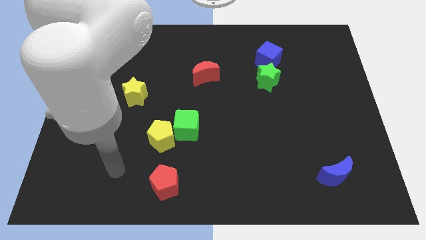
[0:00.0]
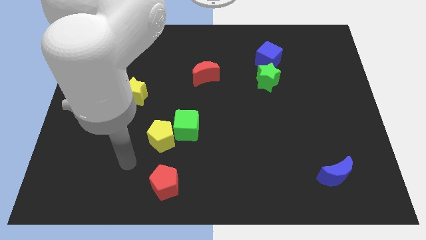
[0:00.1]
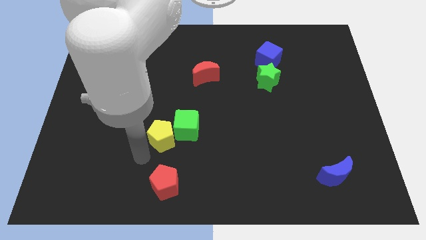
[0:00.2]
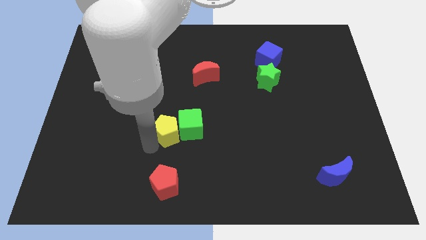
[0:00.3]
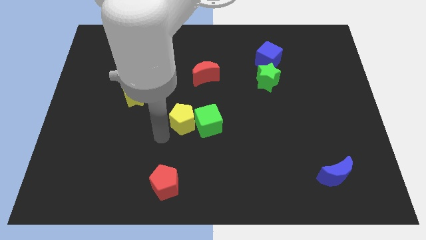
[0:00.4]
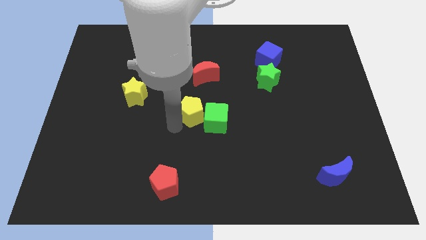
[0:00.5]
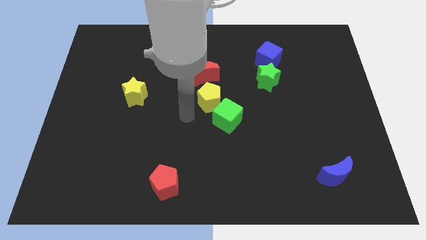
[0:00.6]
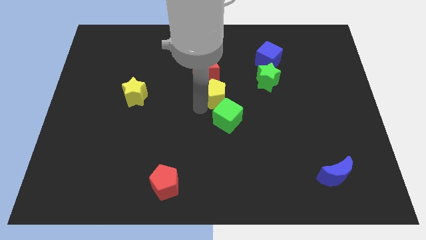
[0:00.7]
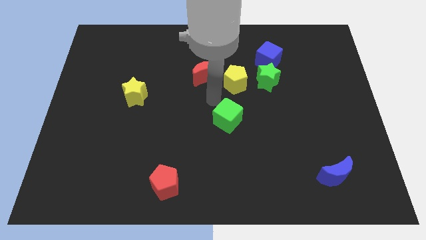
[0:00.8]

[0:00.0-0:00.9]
pull the green cube apart from the yellow pentagon

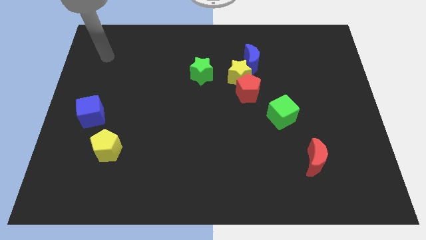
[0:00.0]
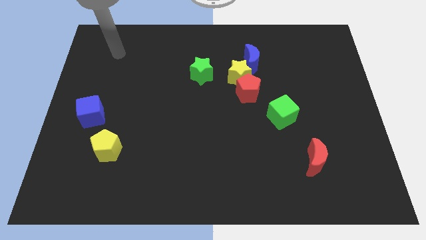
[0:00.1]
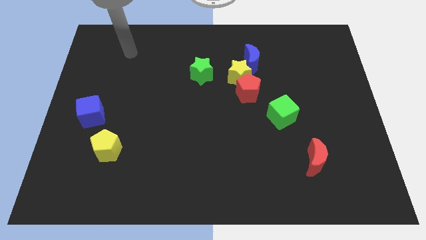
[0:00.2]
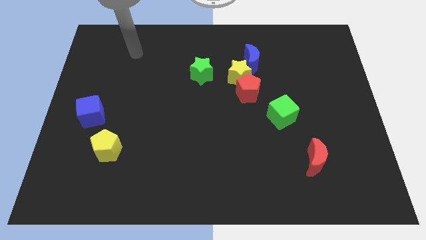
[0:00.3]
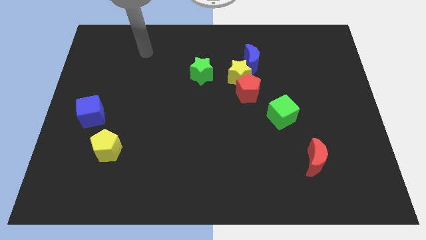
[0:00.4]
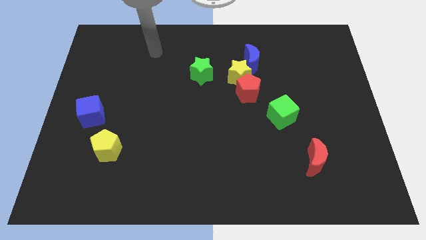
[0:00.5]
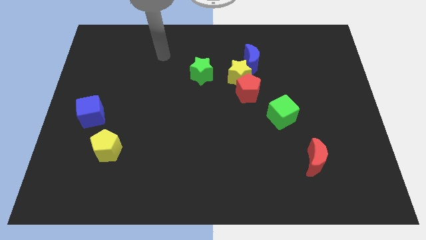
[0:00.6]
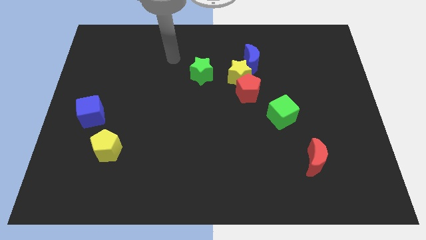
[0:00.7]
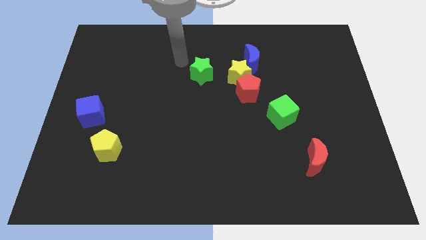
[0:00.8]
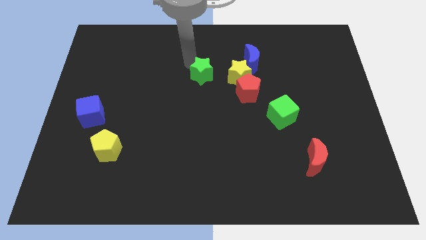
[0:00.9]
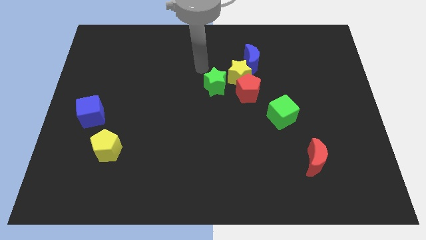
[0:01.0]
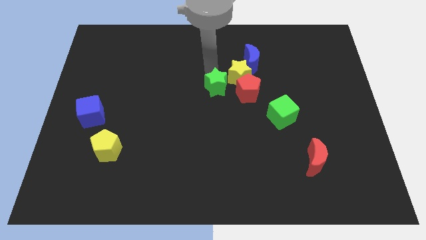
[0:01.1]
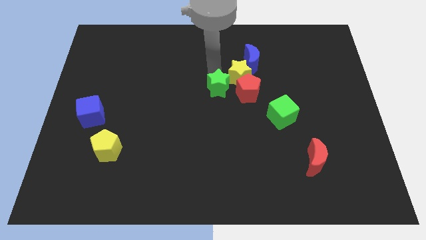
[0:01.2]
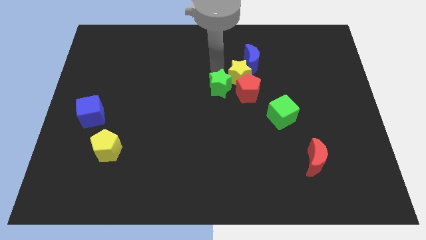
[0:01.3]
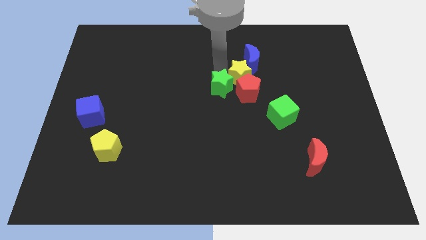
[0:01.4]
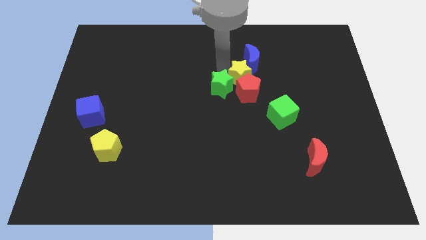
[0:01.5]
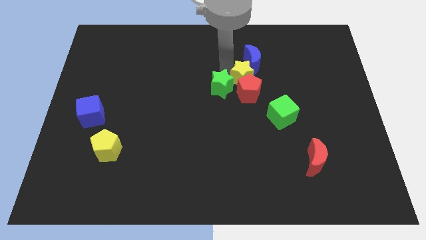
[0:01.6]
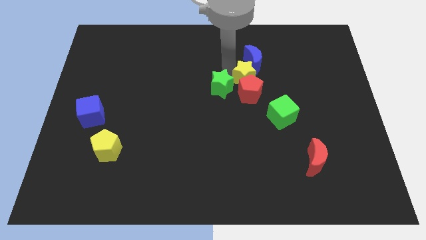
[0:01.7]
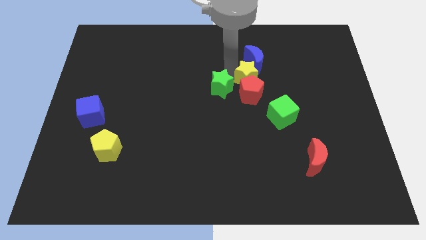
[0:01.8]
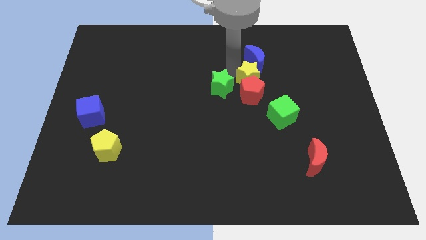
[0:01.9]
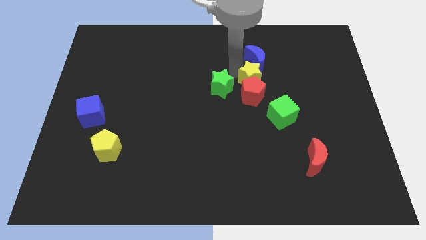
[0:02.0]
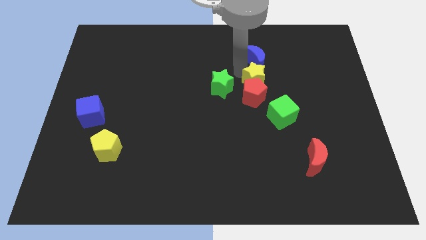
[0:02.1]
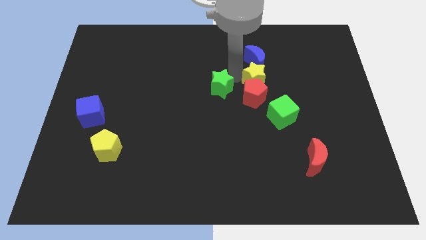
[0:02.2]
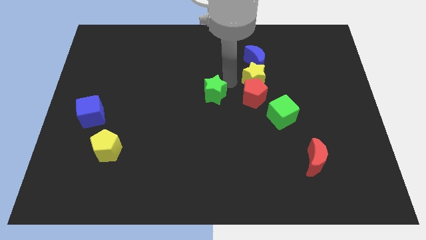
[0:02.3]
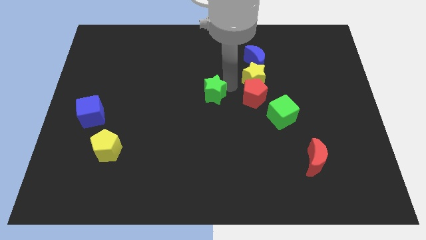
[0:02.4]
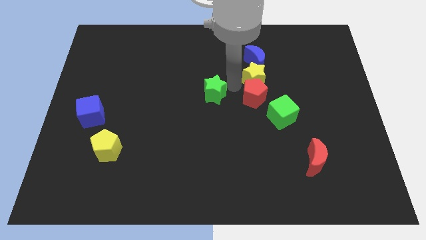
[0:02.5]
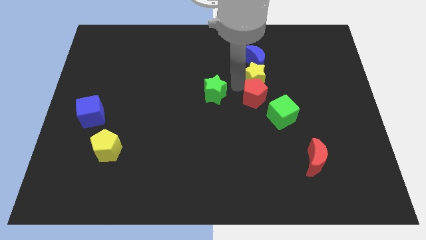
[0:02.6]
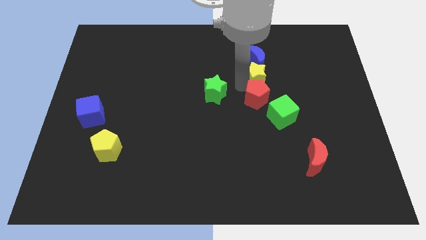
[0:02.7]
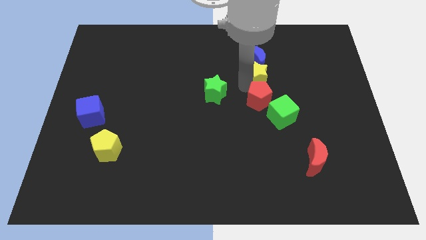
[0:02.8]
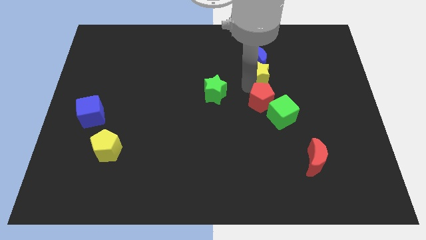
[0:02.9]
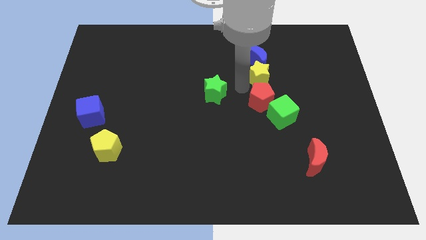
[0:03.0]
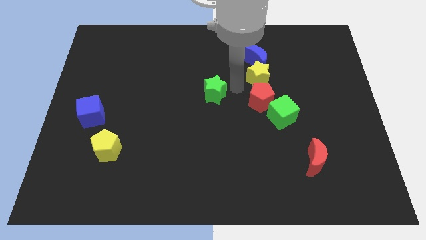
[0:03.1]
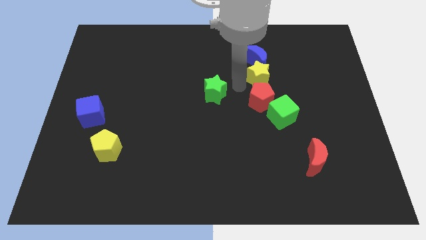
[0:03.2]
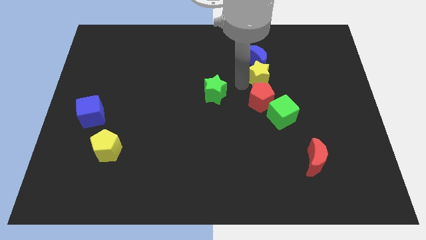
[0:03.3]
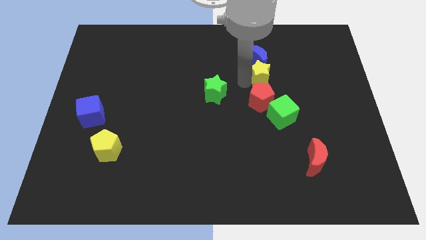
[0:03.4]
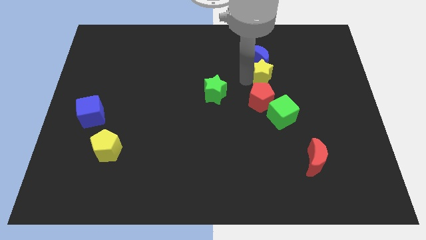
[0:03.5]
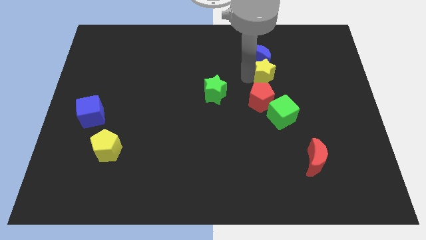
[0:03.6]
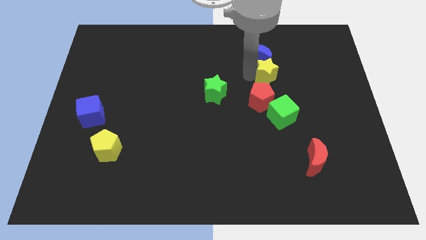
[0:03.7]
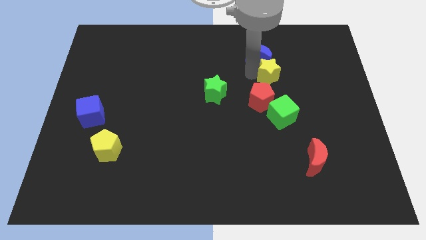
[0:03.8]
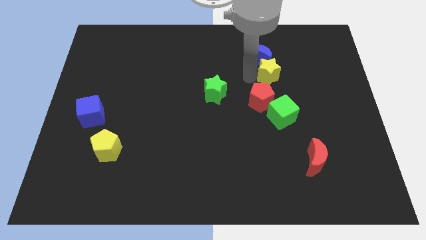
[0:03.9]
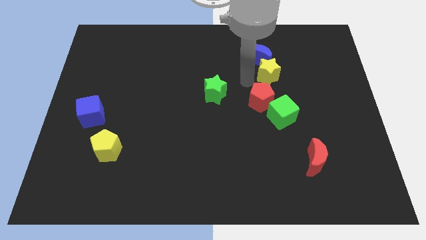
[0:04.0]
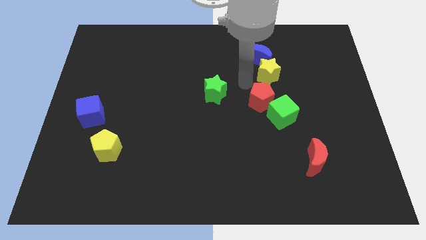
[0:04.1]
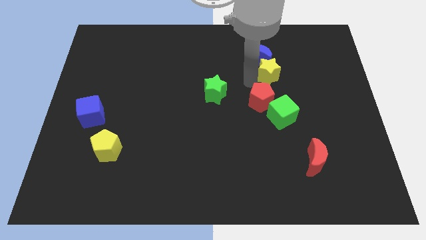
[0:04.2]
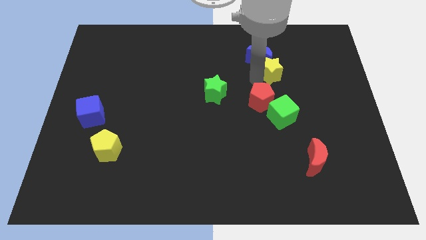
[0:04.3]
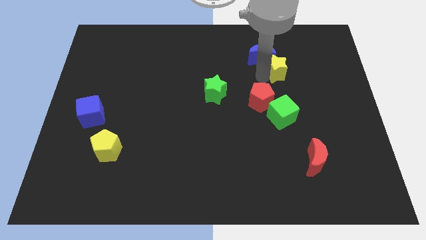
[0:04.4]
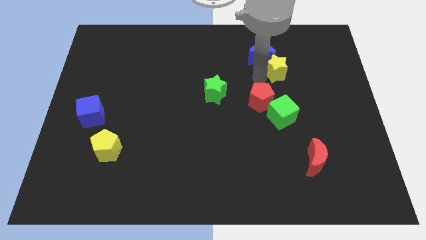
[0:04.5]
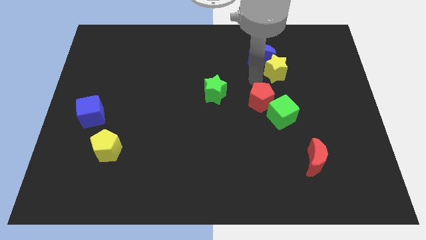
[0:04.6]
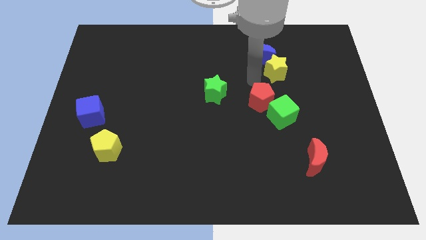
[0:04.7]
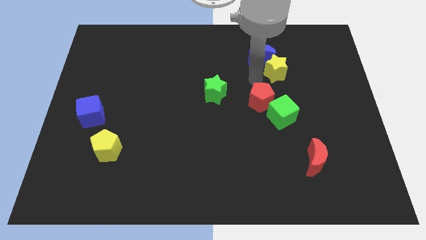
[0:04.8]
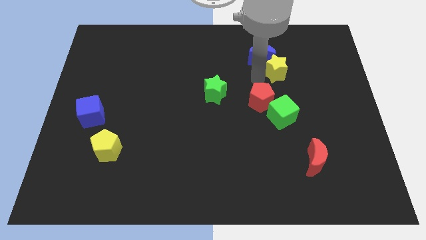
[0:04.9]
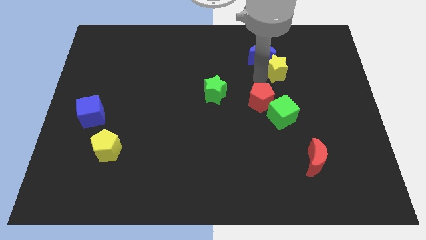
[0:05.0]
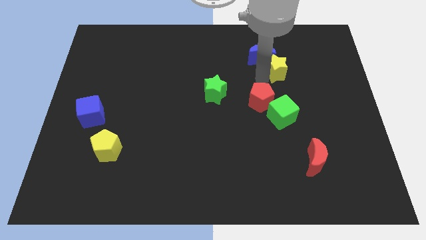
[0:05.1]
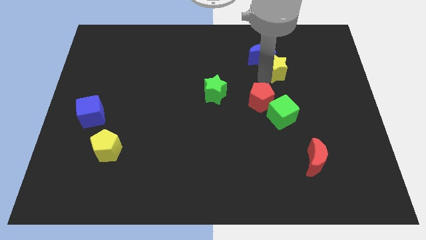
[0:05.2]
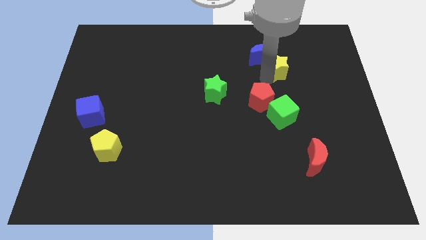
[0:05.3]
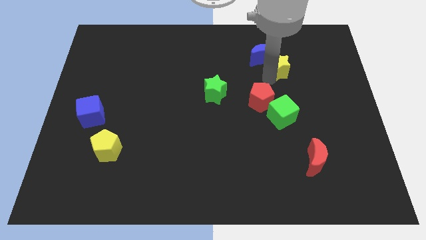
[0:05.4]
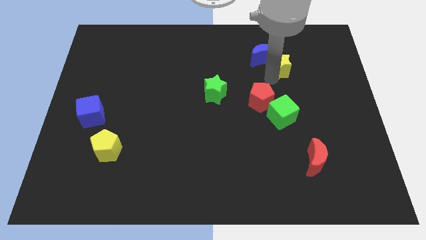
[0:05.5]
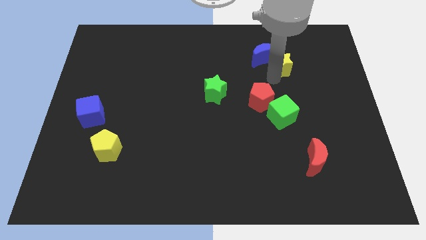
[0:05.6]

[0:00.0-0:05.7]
separate the yellow star from the group

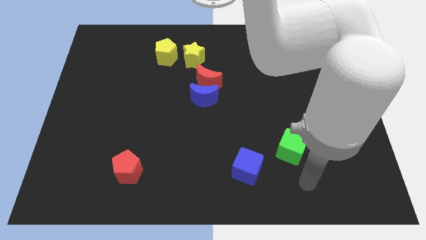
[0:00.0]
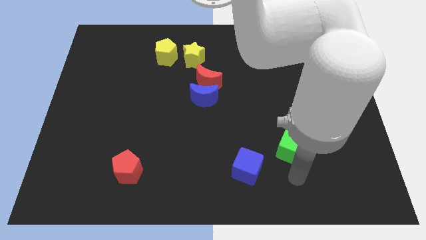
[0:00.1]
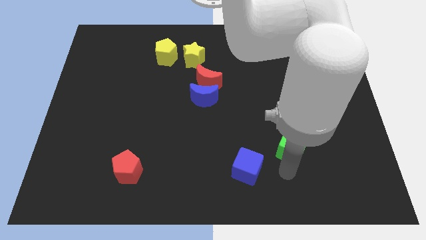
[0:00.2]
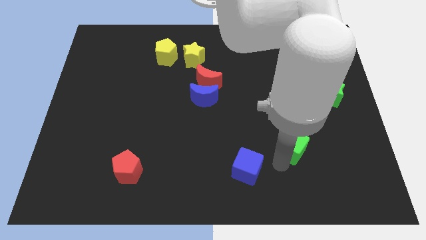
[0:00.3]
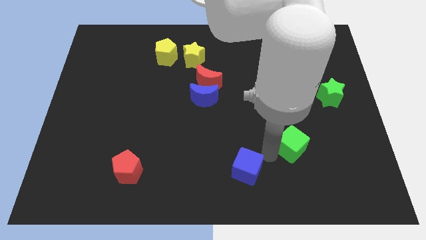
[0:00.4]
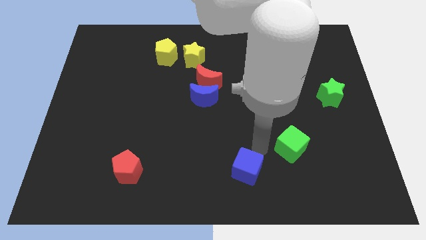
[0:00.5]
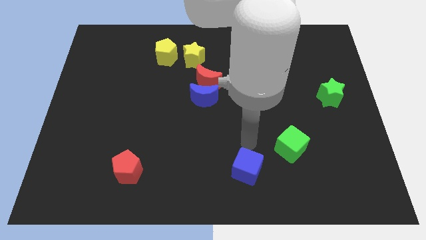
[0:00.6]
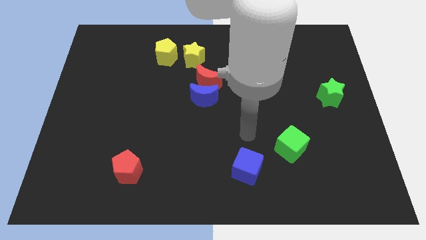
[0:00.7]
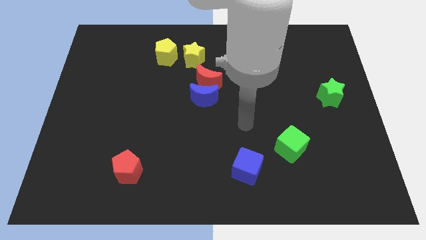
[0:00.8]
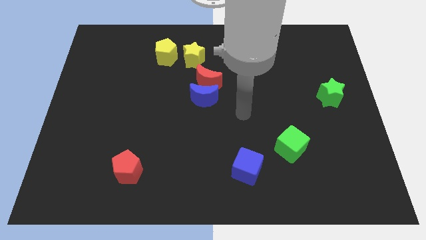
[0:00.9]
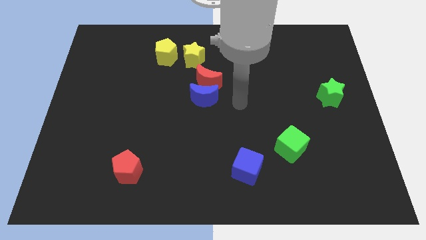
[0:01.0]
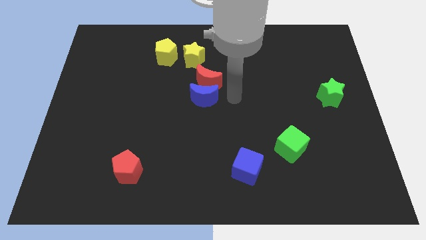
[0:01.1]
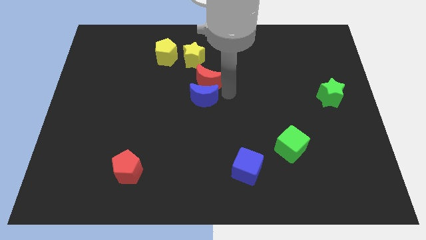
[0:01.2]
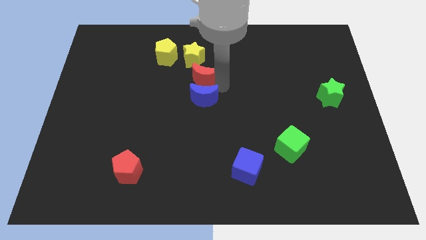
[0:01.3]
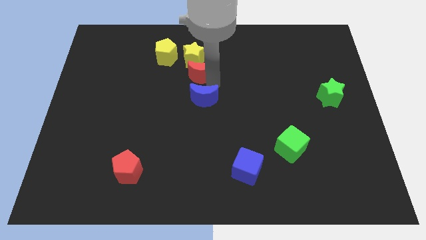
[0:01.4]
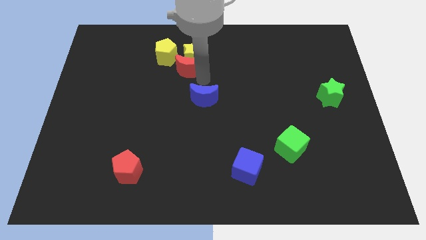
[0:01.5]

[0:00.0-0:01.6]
pull the blue moon apart from the red moon

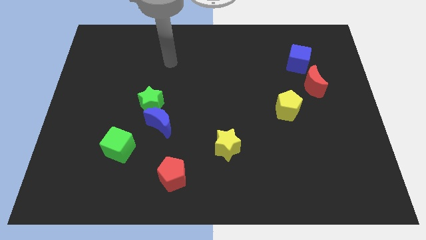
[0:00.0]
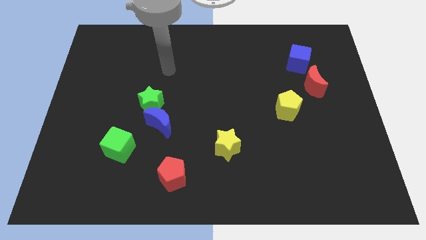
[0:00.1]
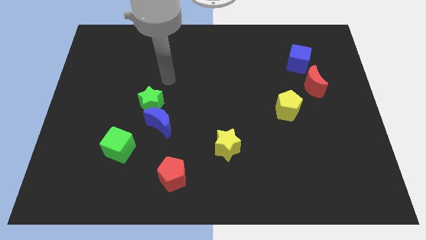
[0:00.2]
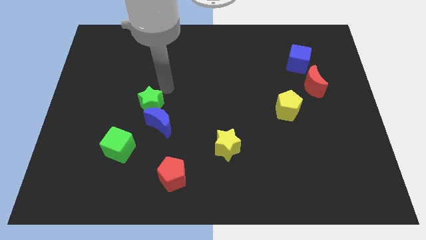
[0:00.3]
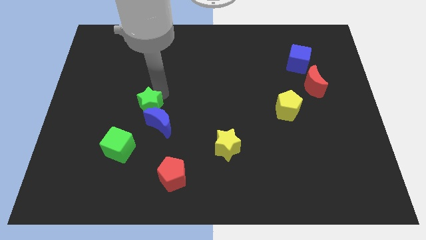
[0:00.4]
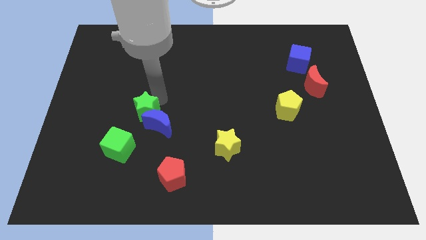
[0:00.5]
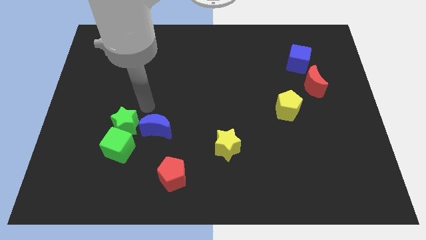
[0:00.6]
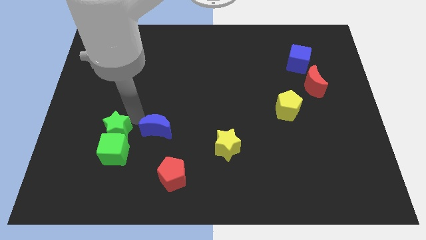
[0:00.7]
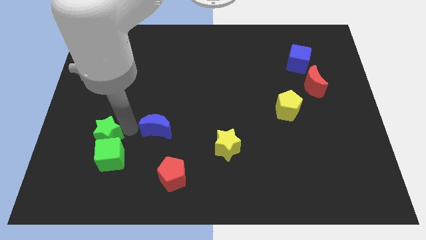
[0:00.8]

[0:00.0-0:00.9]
move the blue moon away from the green star

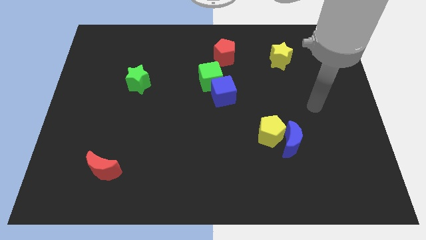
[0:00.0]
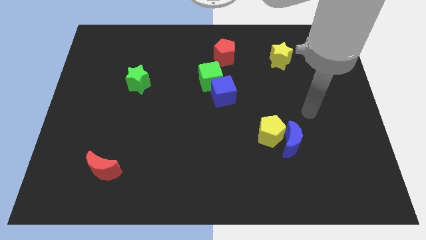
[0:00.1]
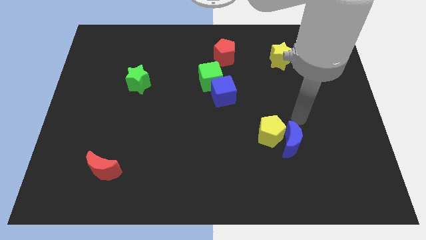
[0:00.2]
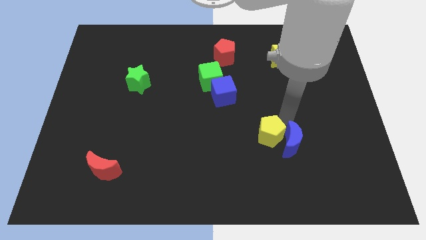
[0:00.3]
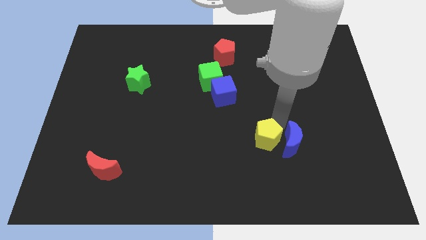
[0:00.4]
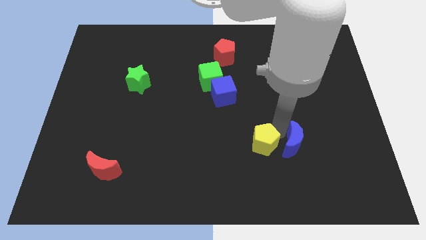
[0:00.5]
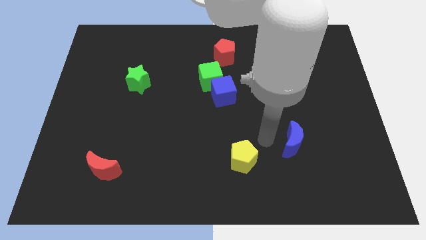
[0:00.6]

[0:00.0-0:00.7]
move the blue moon away from the yellow pentagon
